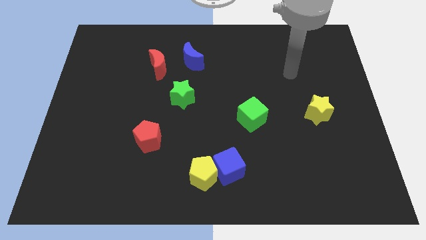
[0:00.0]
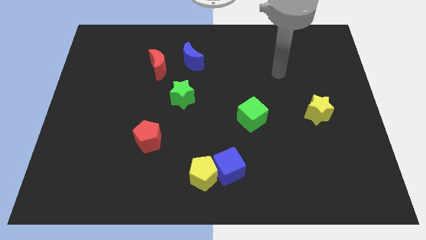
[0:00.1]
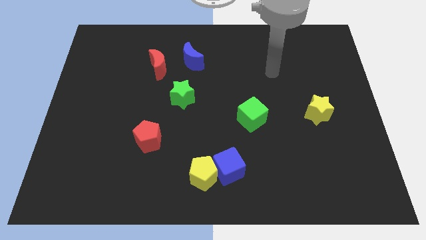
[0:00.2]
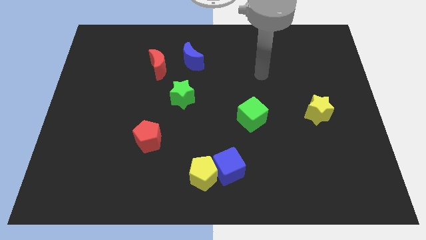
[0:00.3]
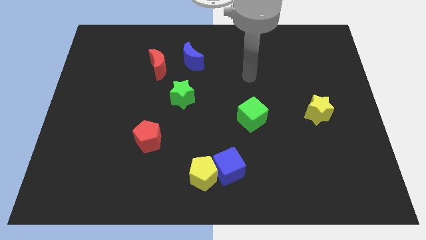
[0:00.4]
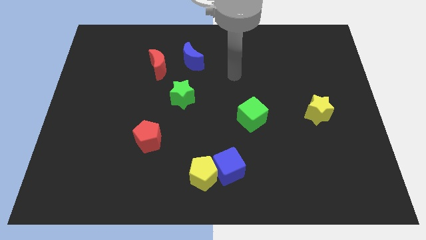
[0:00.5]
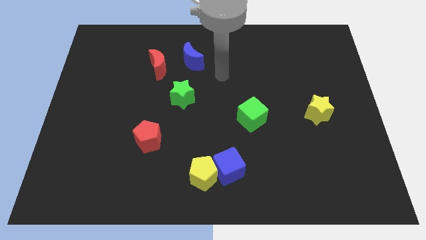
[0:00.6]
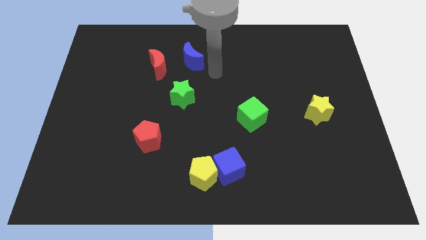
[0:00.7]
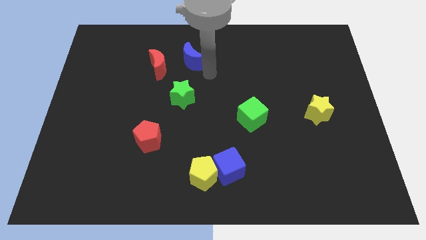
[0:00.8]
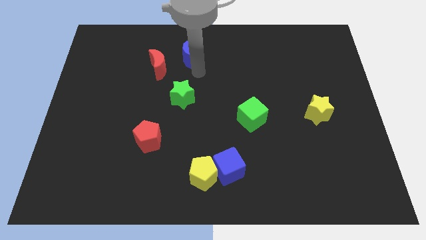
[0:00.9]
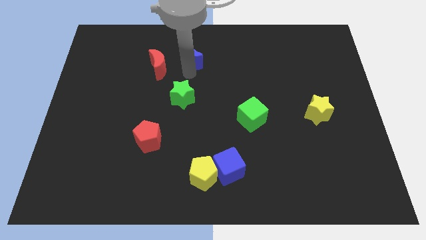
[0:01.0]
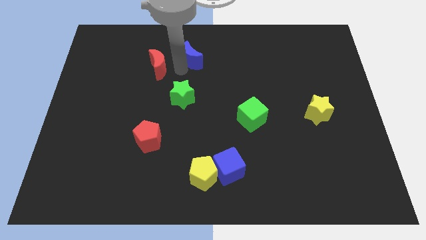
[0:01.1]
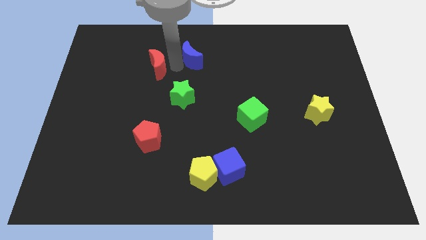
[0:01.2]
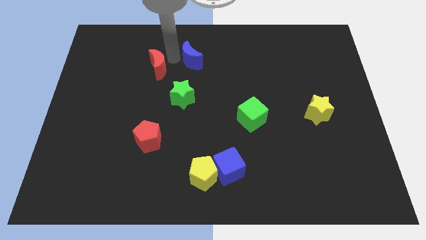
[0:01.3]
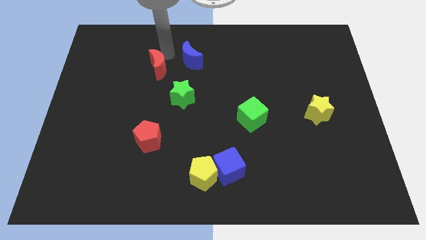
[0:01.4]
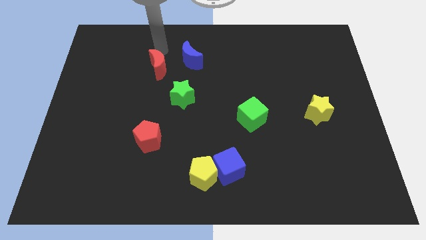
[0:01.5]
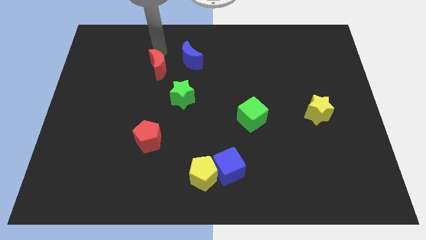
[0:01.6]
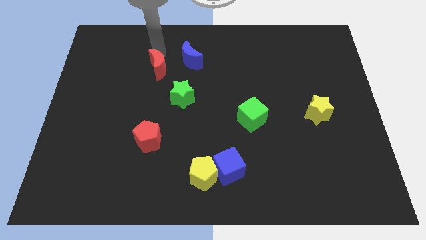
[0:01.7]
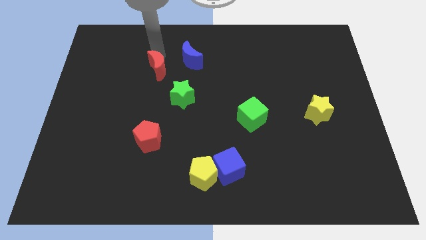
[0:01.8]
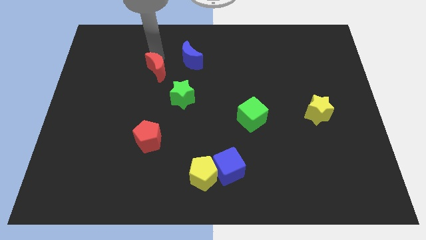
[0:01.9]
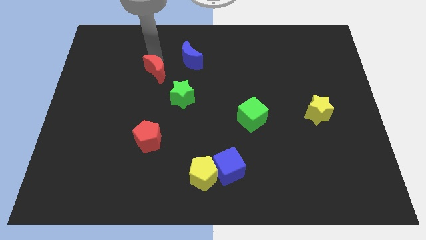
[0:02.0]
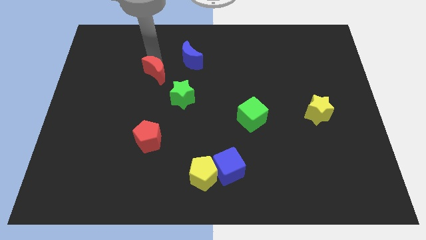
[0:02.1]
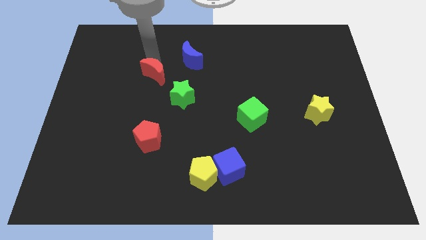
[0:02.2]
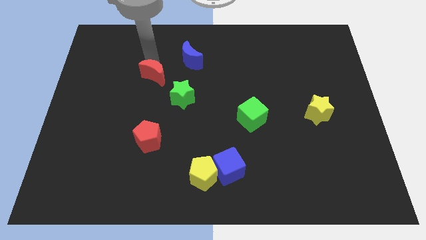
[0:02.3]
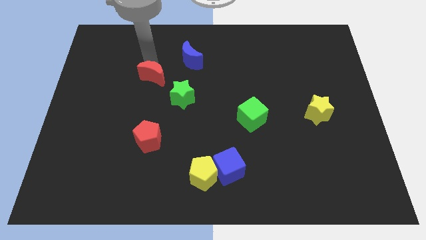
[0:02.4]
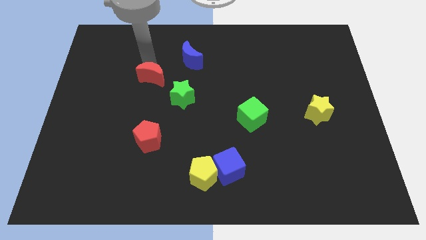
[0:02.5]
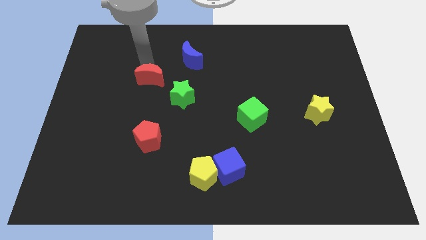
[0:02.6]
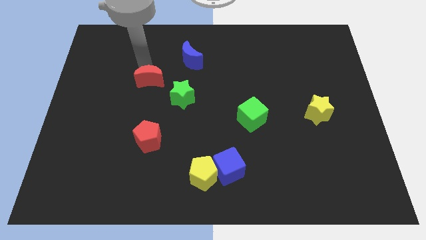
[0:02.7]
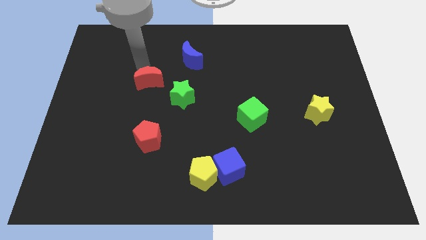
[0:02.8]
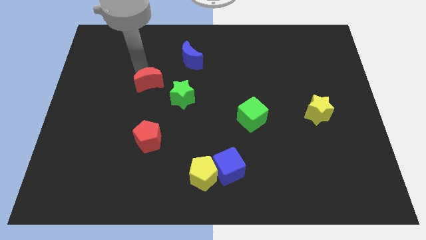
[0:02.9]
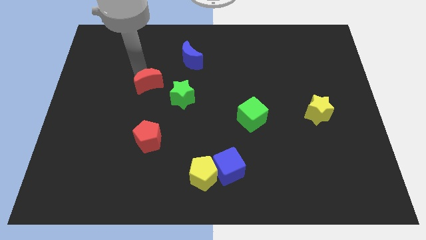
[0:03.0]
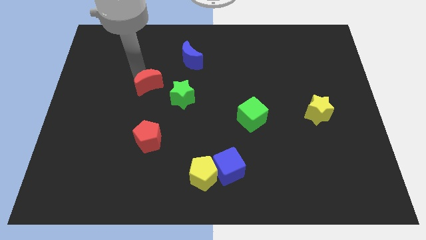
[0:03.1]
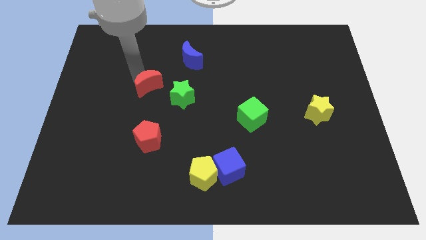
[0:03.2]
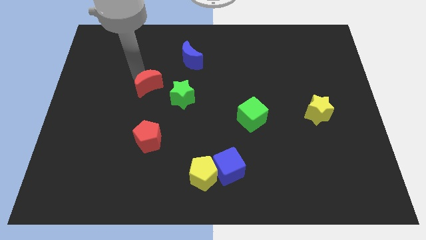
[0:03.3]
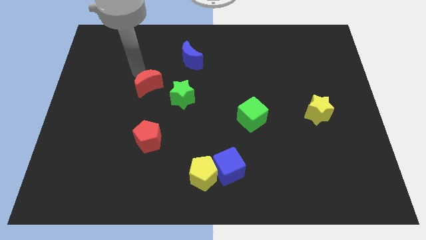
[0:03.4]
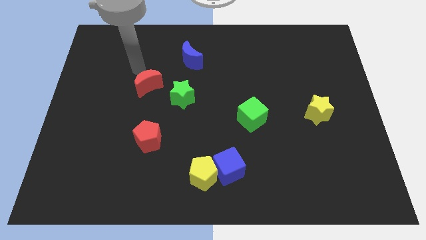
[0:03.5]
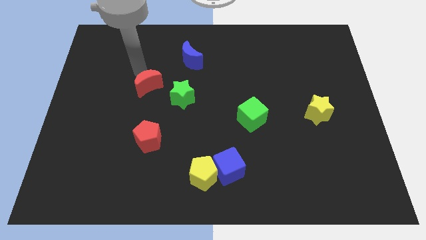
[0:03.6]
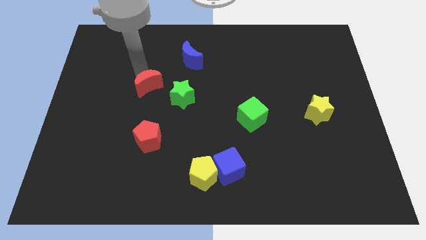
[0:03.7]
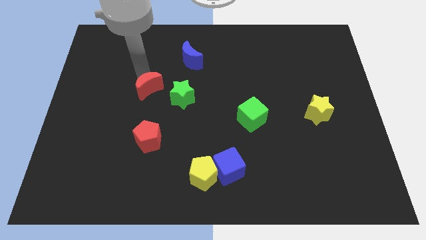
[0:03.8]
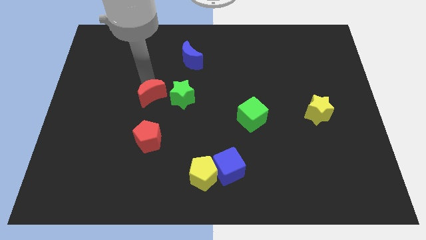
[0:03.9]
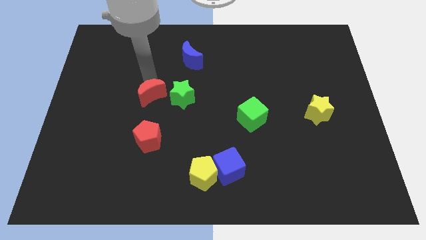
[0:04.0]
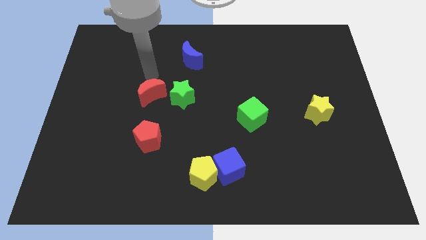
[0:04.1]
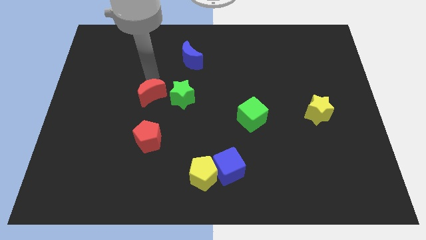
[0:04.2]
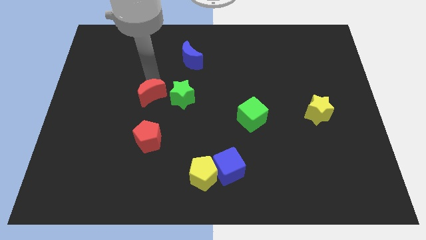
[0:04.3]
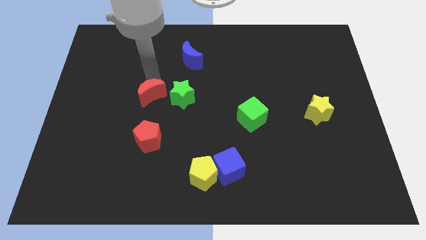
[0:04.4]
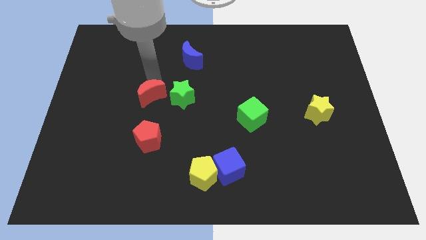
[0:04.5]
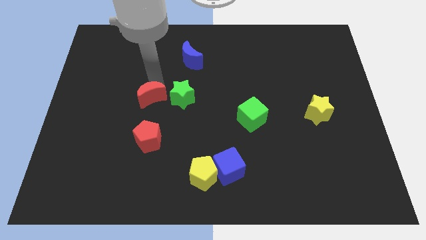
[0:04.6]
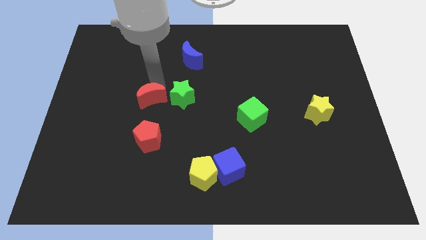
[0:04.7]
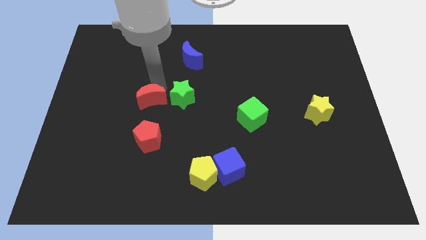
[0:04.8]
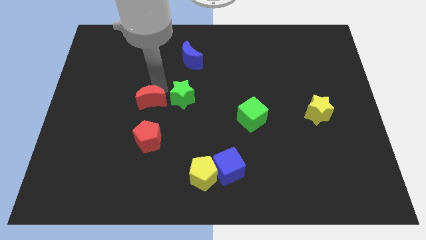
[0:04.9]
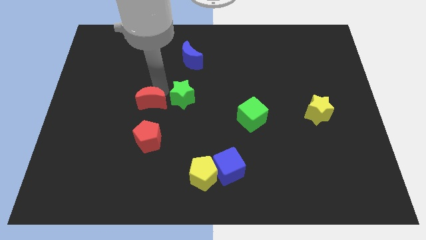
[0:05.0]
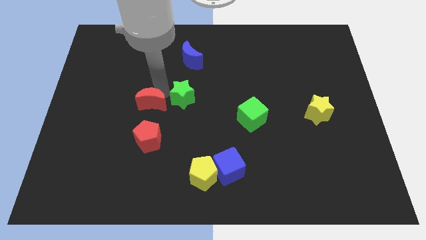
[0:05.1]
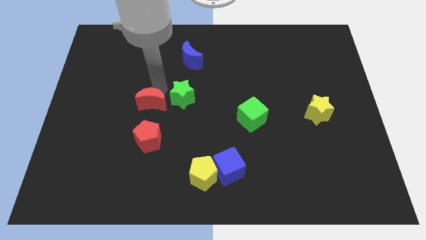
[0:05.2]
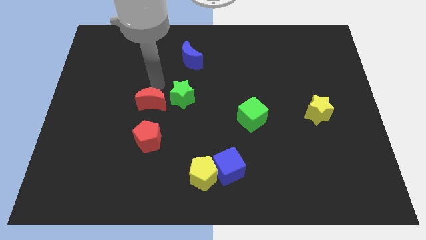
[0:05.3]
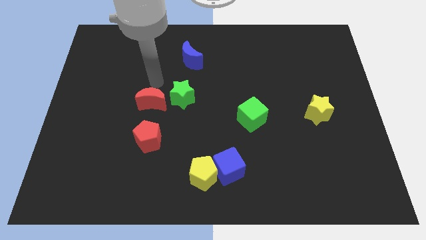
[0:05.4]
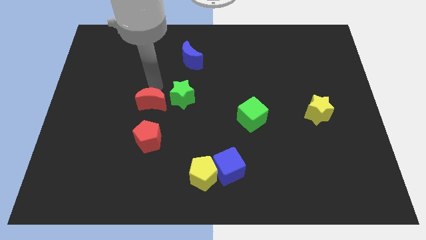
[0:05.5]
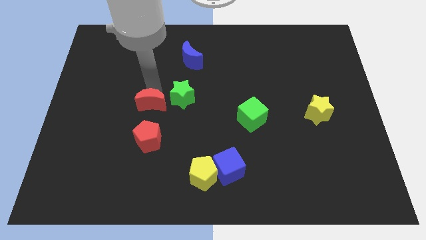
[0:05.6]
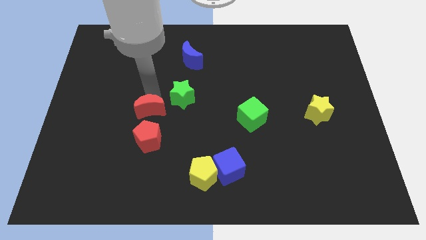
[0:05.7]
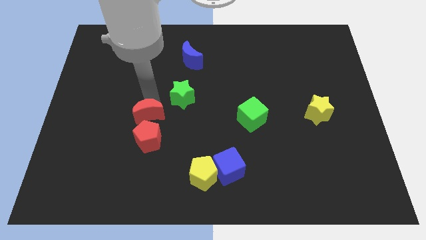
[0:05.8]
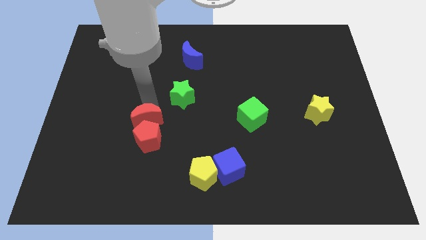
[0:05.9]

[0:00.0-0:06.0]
move the red moon next to the red pentagon
